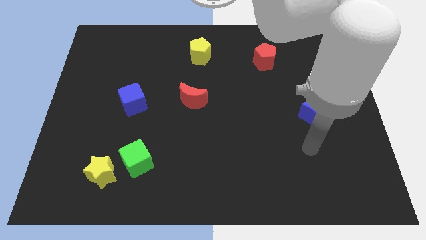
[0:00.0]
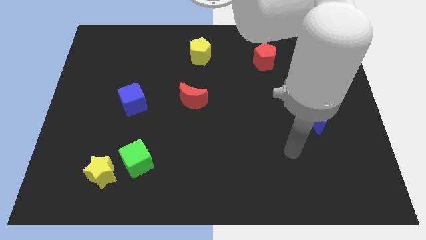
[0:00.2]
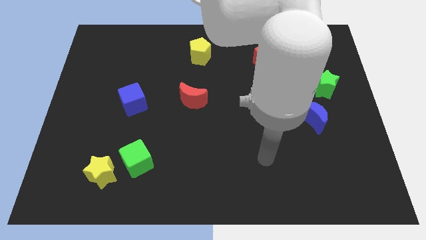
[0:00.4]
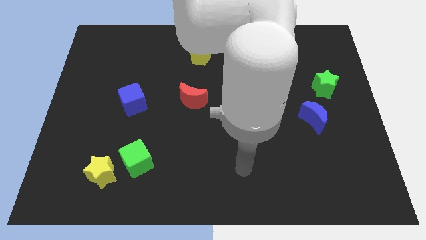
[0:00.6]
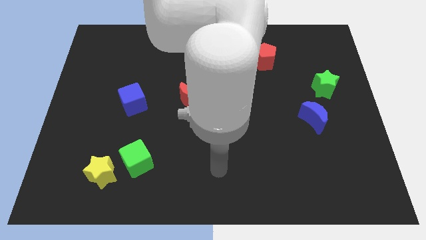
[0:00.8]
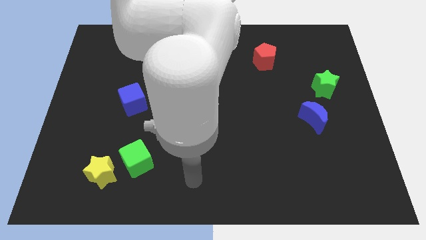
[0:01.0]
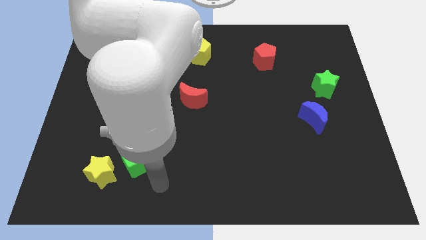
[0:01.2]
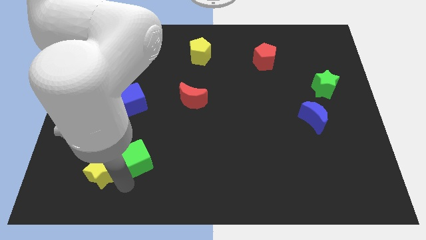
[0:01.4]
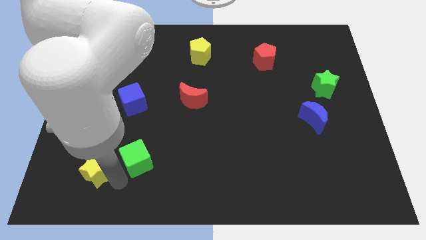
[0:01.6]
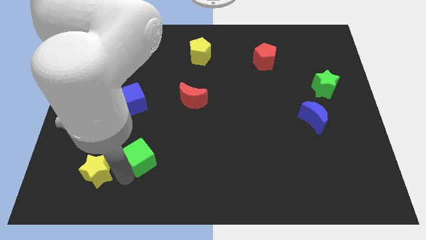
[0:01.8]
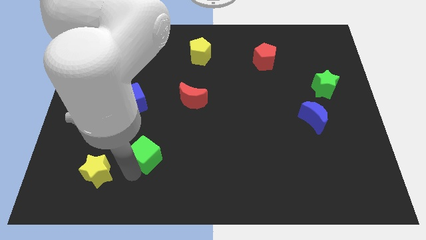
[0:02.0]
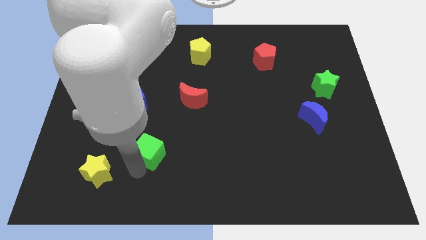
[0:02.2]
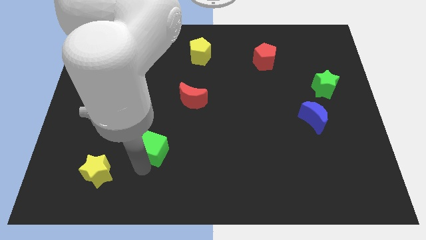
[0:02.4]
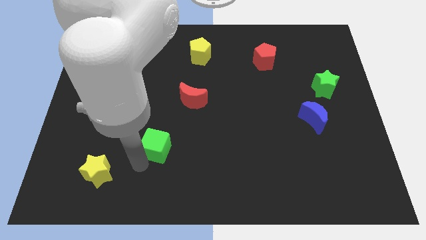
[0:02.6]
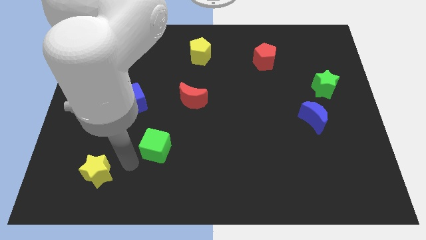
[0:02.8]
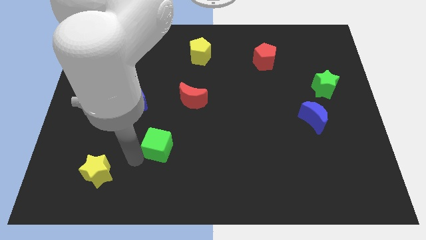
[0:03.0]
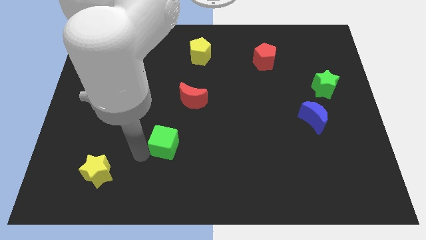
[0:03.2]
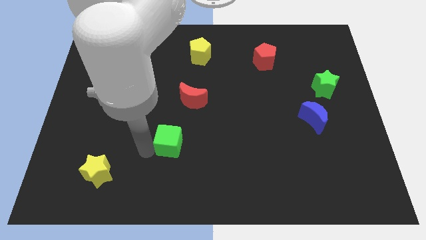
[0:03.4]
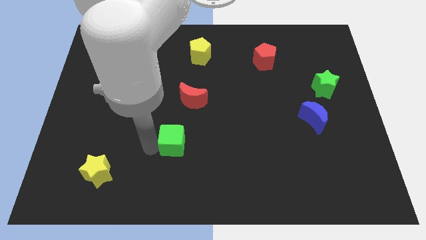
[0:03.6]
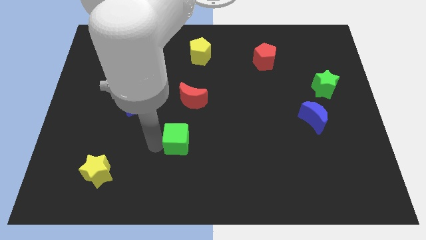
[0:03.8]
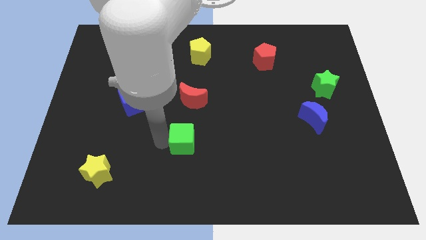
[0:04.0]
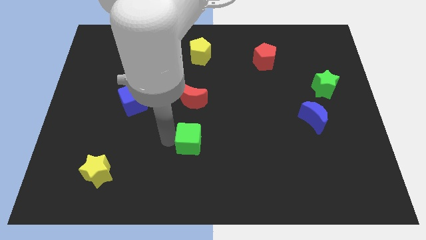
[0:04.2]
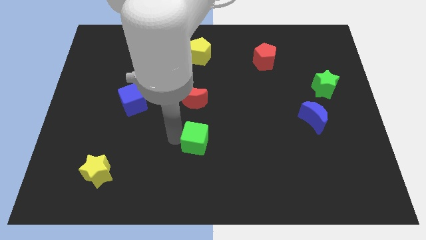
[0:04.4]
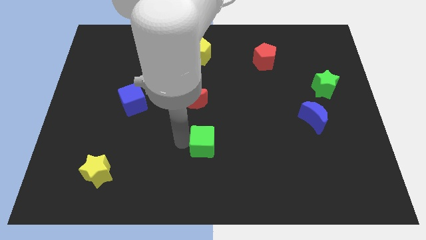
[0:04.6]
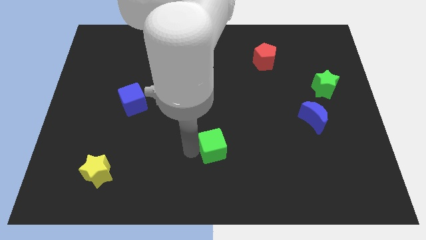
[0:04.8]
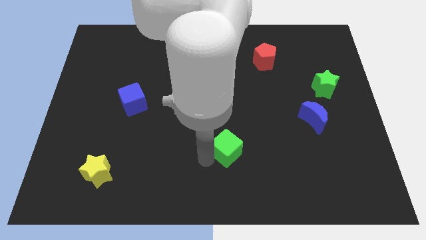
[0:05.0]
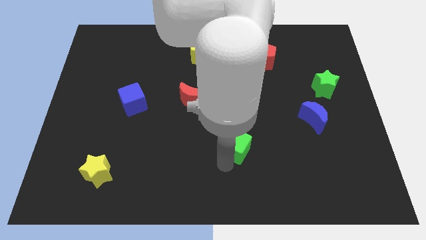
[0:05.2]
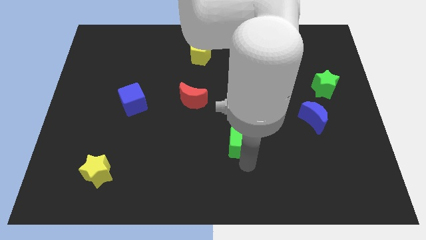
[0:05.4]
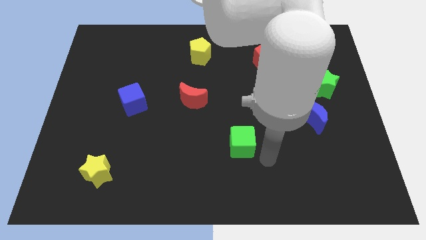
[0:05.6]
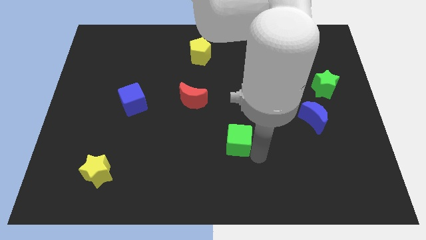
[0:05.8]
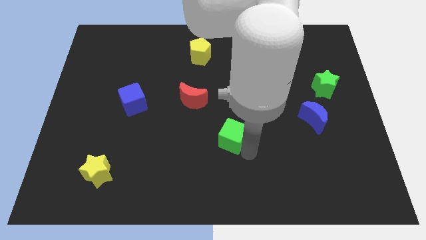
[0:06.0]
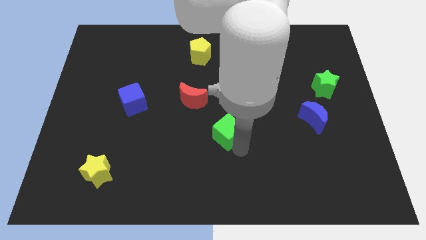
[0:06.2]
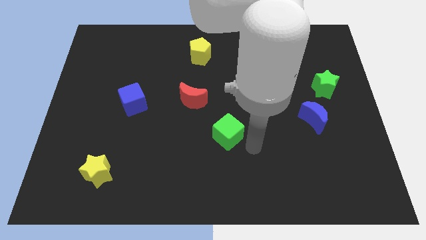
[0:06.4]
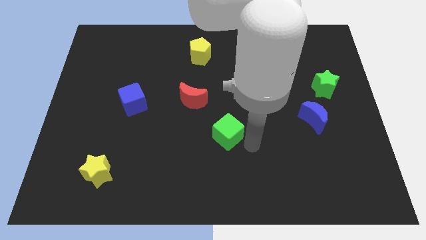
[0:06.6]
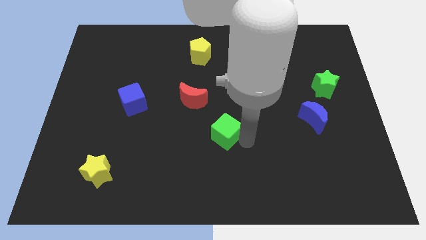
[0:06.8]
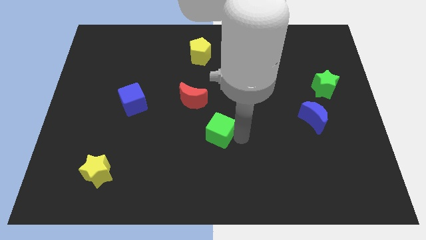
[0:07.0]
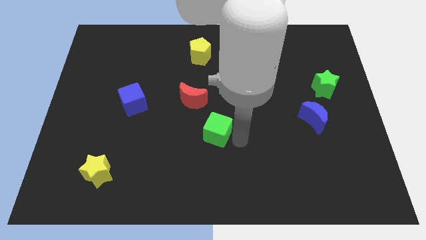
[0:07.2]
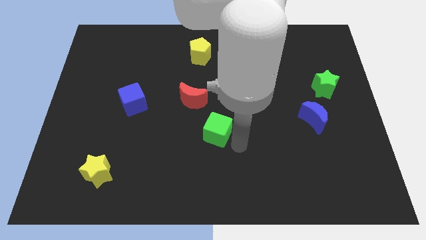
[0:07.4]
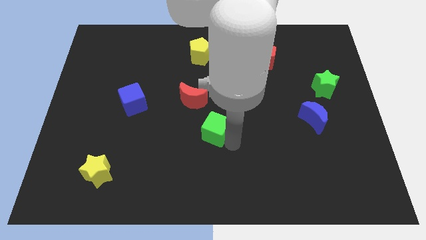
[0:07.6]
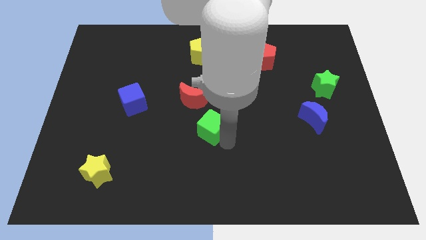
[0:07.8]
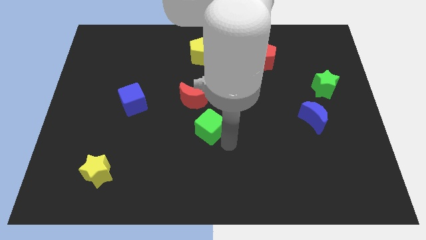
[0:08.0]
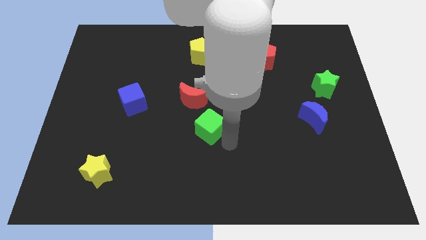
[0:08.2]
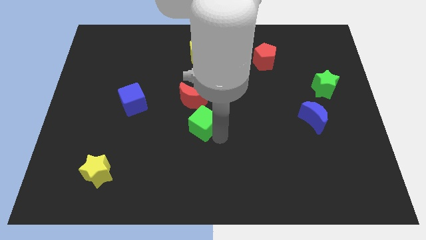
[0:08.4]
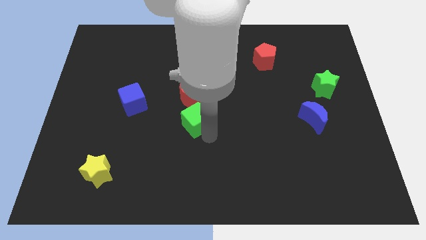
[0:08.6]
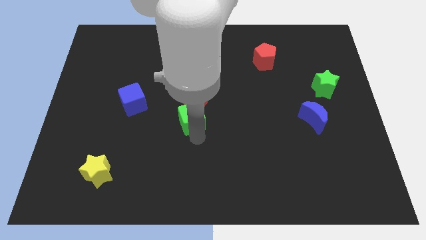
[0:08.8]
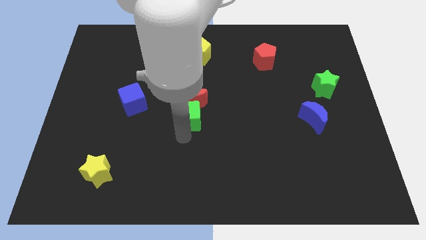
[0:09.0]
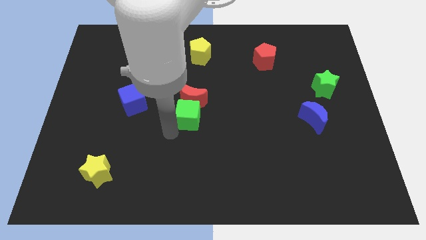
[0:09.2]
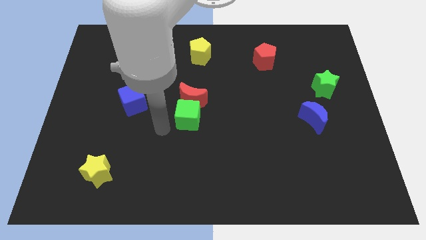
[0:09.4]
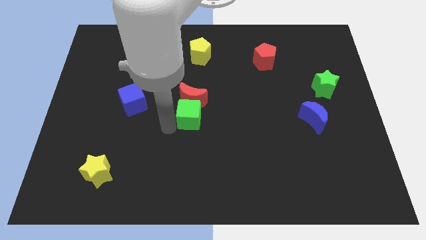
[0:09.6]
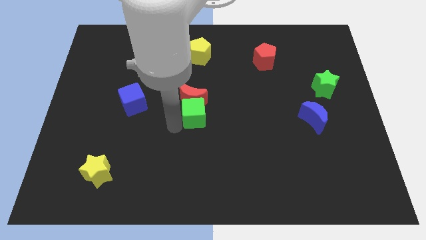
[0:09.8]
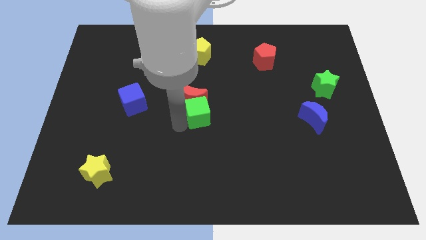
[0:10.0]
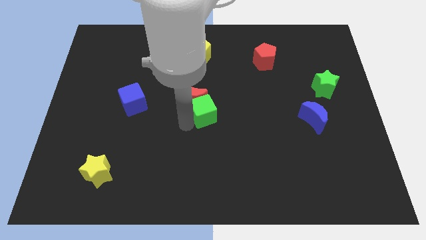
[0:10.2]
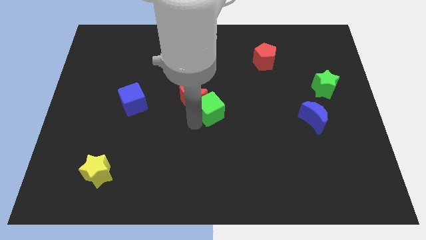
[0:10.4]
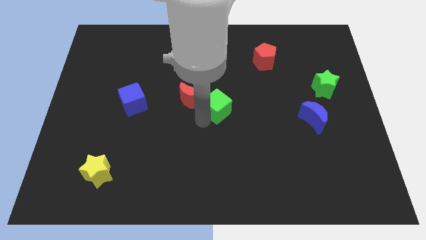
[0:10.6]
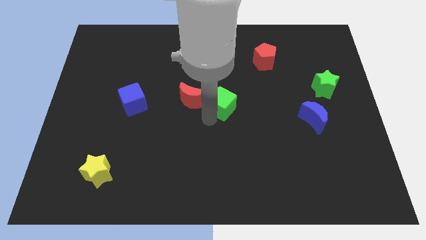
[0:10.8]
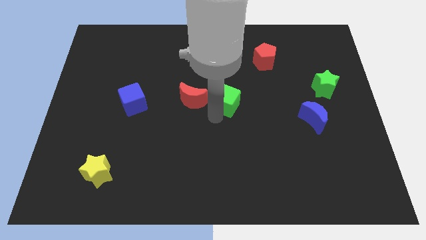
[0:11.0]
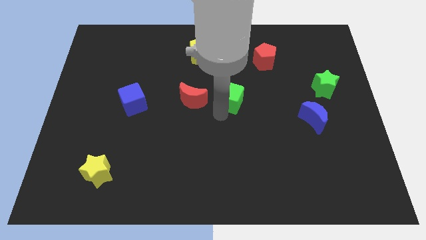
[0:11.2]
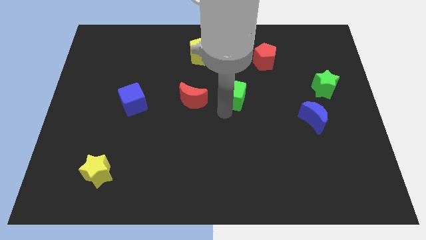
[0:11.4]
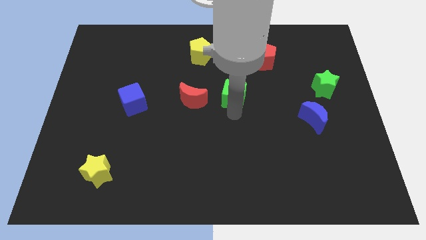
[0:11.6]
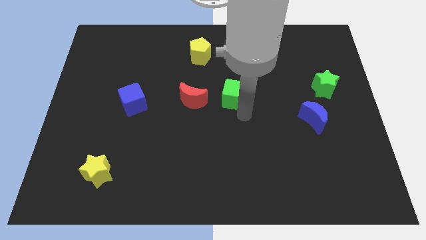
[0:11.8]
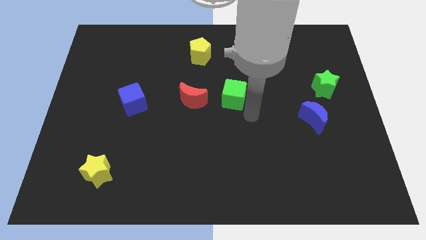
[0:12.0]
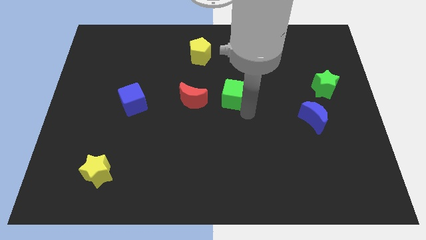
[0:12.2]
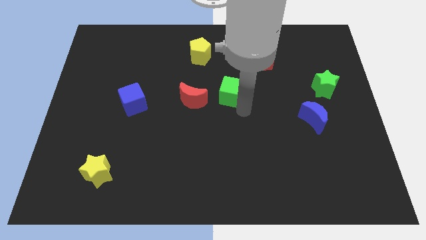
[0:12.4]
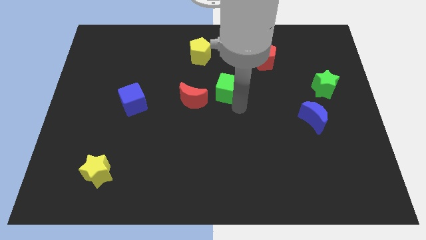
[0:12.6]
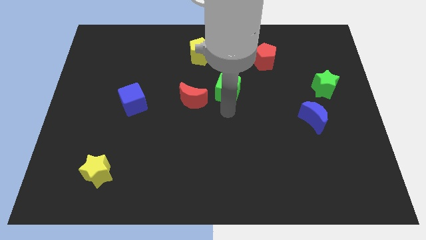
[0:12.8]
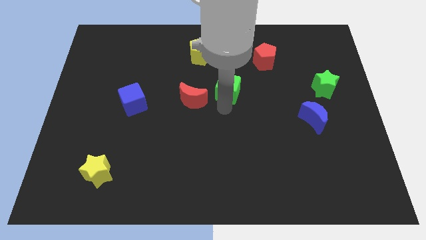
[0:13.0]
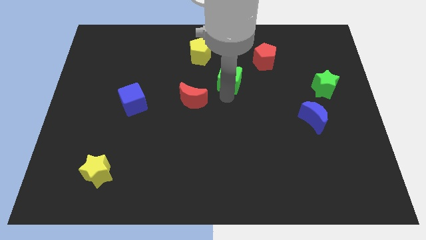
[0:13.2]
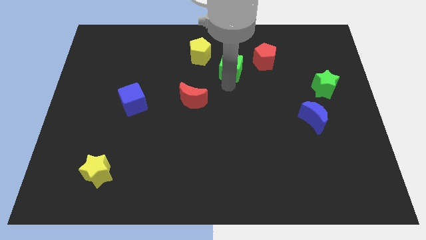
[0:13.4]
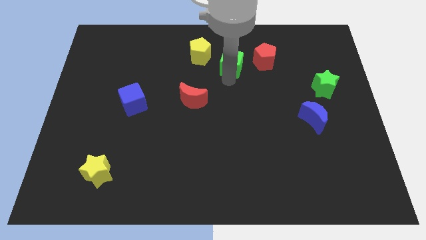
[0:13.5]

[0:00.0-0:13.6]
push the green cube to the right side of the yellow pentagon
